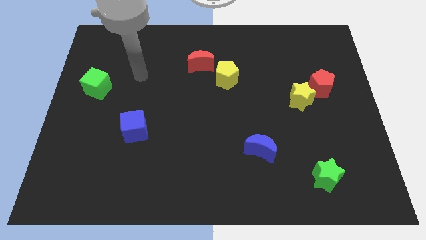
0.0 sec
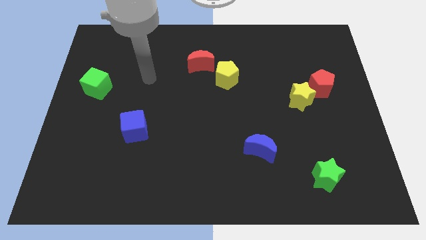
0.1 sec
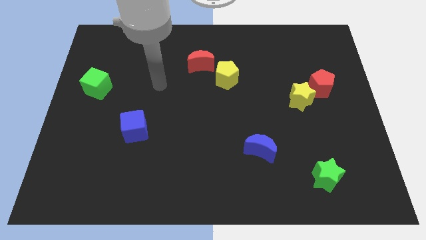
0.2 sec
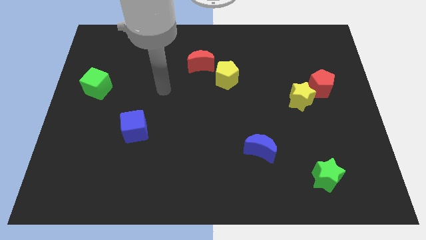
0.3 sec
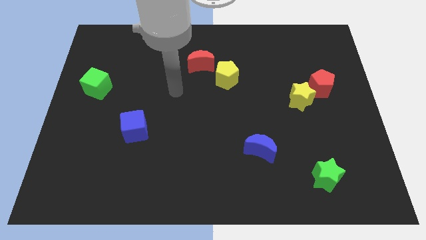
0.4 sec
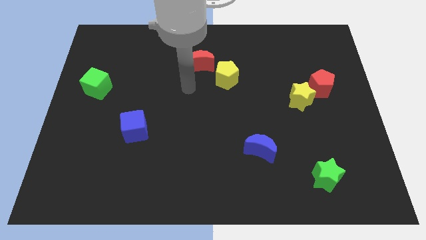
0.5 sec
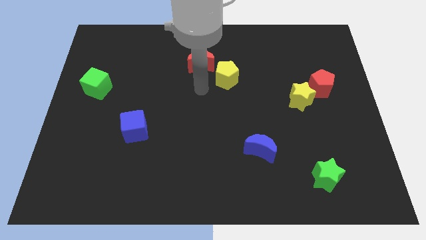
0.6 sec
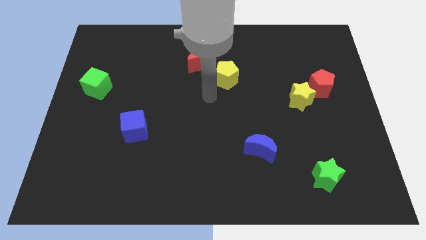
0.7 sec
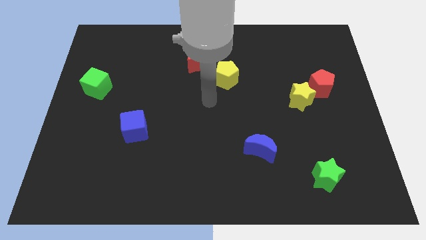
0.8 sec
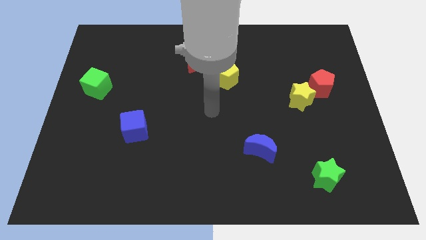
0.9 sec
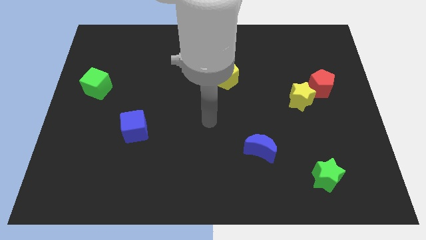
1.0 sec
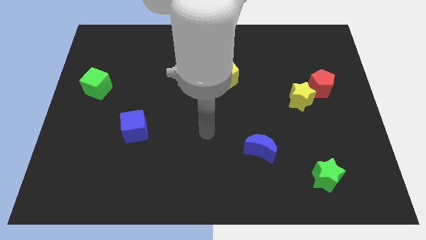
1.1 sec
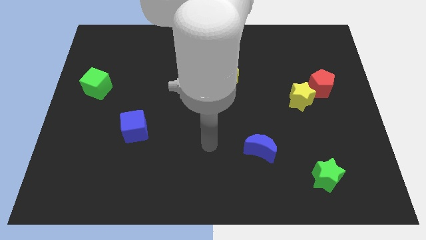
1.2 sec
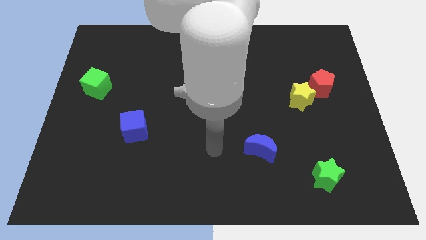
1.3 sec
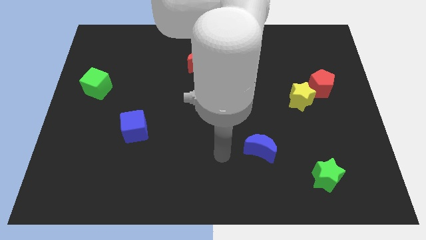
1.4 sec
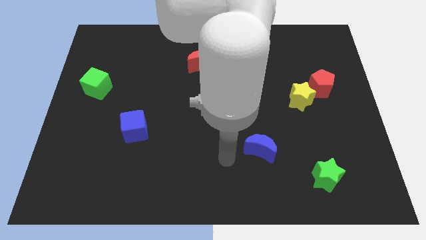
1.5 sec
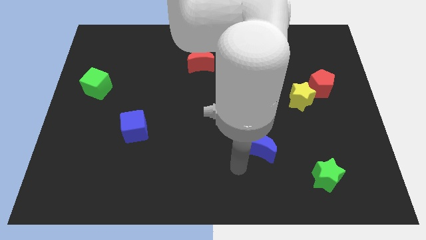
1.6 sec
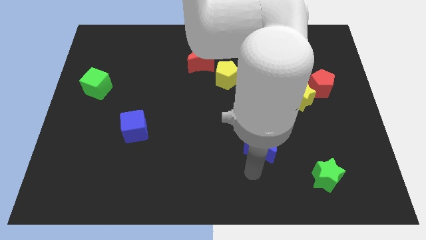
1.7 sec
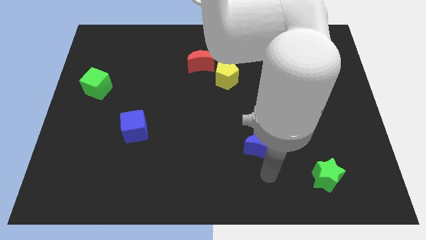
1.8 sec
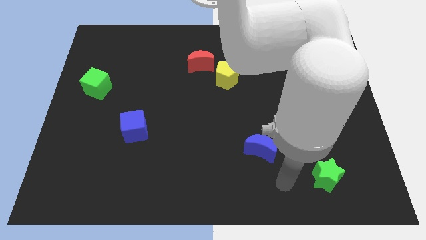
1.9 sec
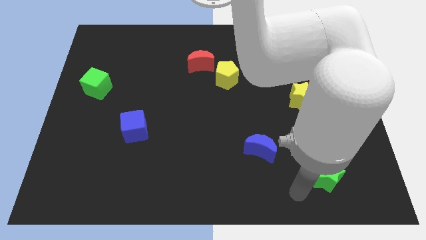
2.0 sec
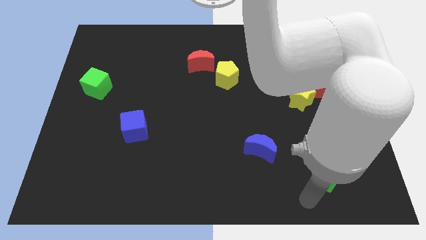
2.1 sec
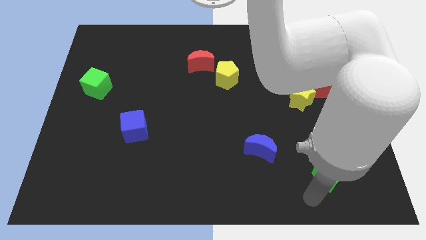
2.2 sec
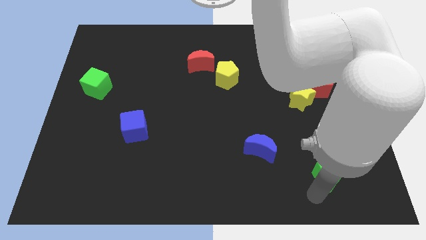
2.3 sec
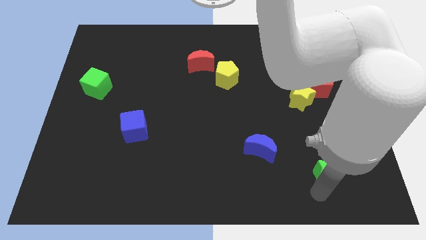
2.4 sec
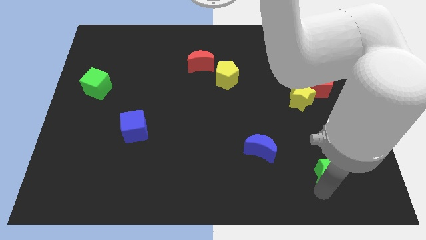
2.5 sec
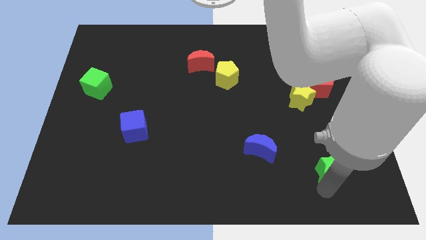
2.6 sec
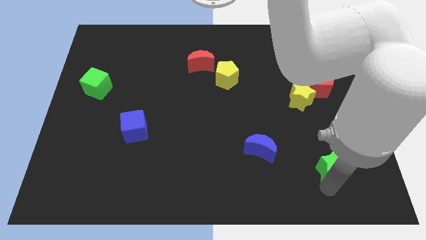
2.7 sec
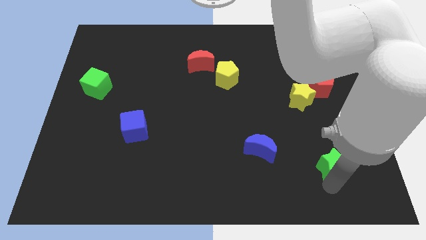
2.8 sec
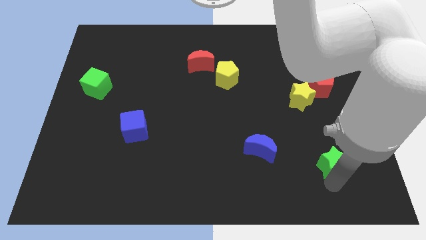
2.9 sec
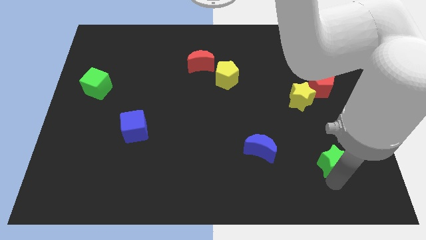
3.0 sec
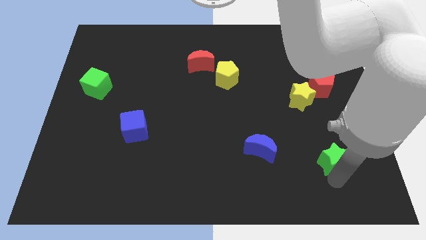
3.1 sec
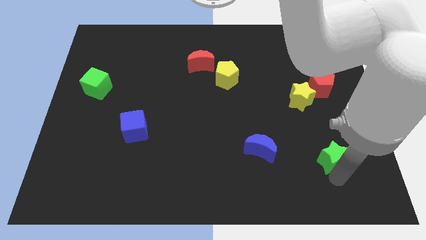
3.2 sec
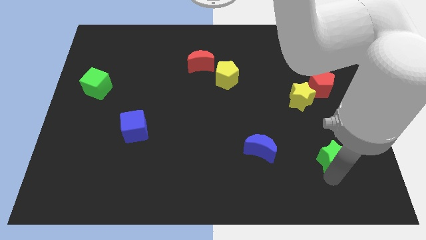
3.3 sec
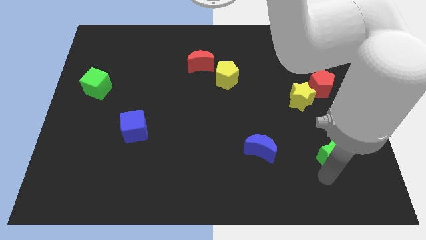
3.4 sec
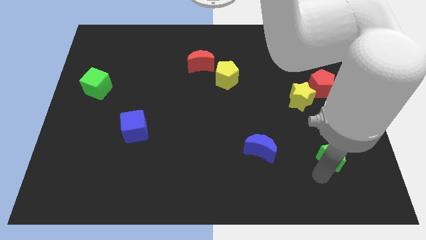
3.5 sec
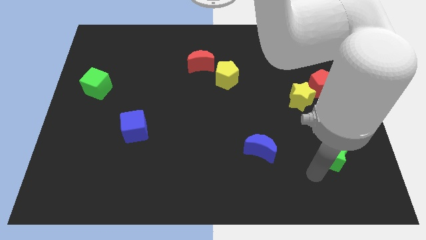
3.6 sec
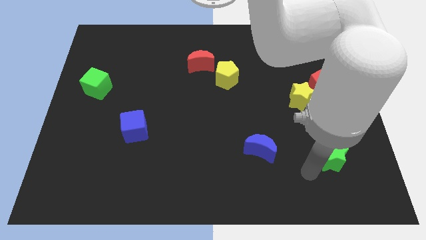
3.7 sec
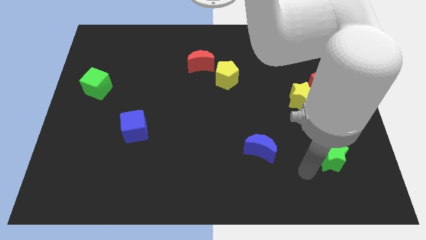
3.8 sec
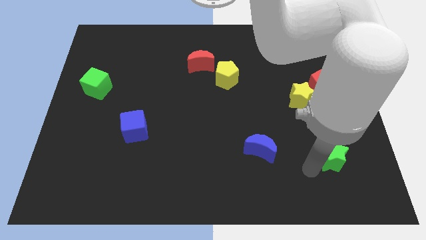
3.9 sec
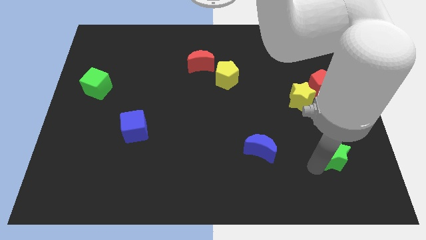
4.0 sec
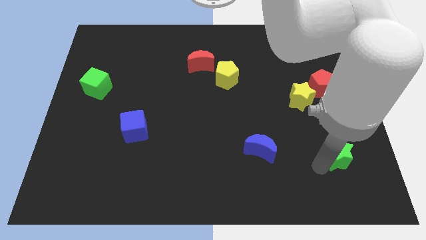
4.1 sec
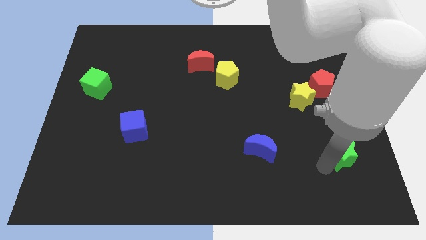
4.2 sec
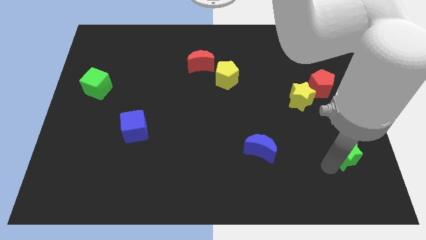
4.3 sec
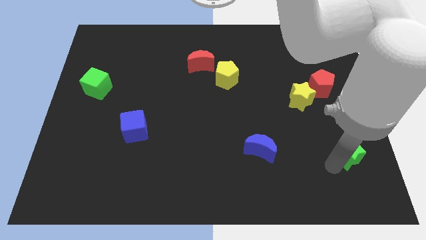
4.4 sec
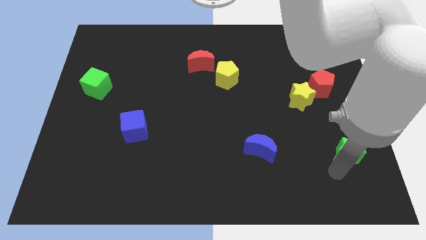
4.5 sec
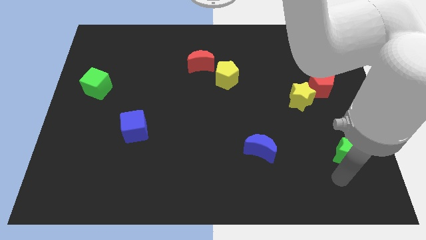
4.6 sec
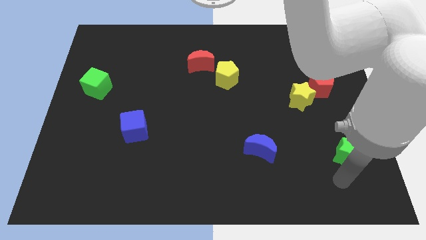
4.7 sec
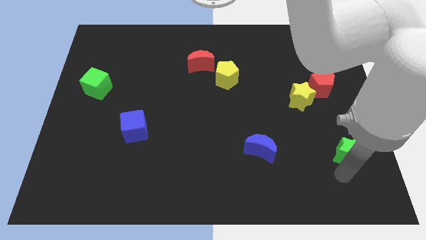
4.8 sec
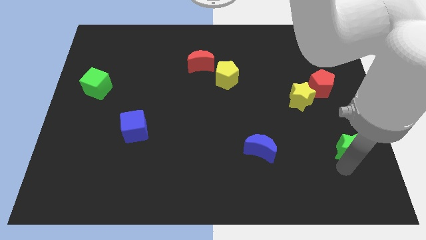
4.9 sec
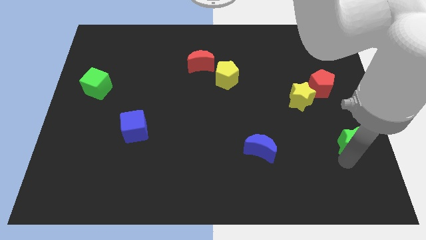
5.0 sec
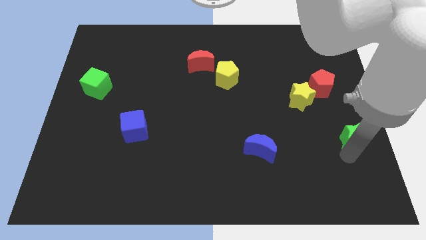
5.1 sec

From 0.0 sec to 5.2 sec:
push the green star to the center right

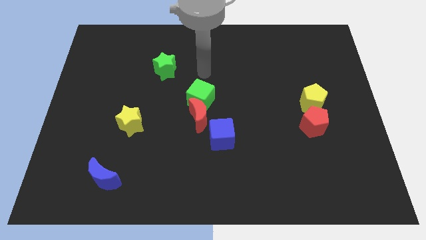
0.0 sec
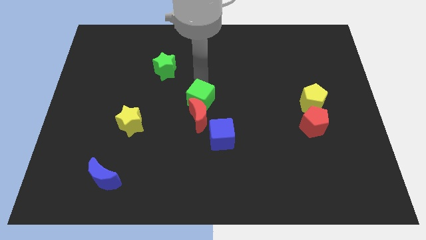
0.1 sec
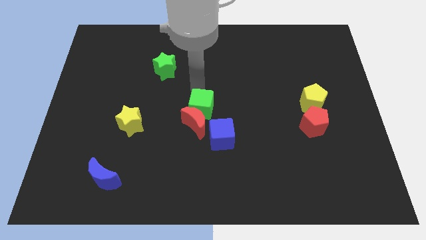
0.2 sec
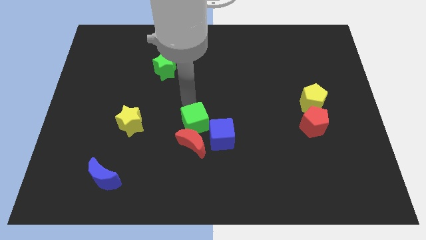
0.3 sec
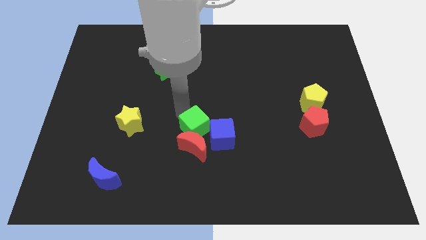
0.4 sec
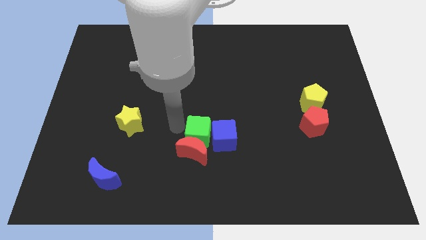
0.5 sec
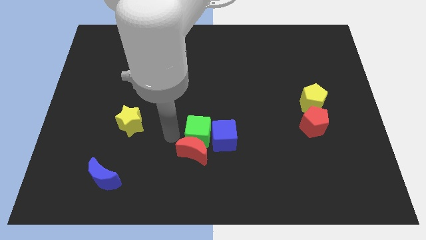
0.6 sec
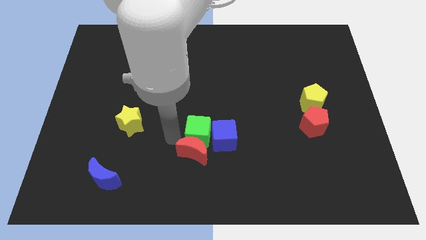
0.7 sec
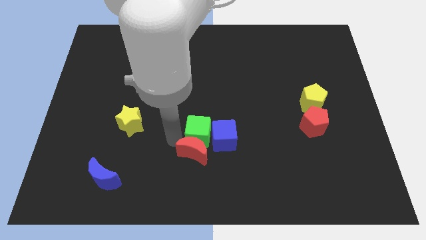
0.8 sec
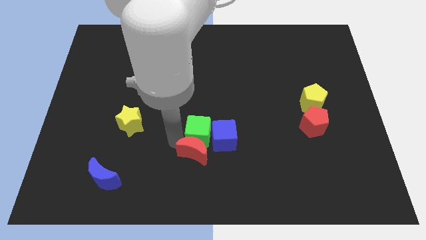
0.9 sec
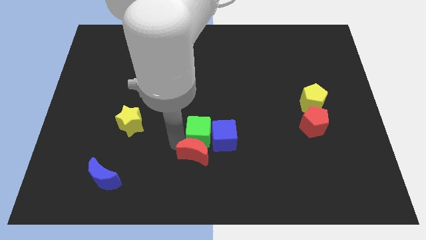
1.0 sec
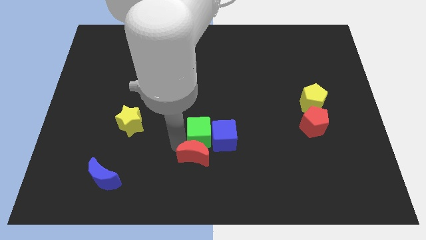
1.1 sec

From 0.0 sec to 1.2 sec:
put the red moon to the bottom
